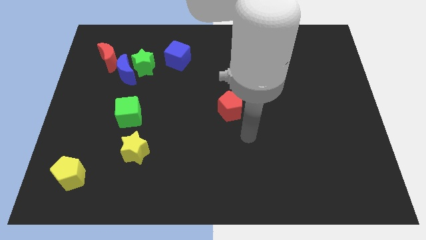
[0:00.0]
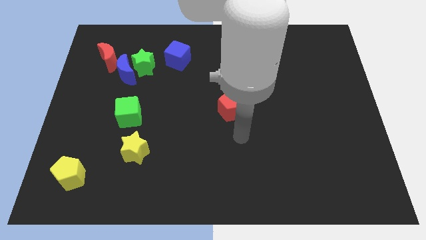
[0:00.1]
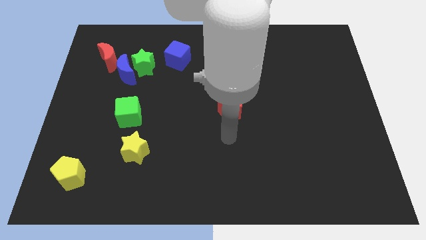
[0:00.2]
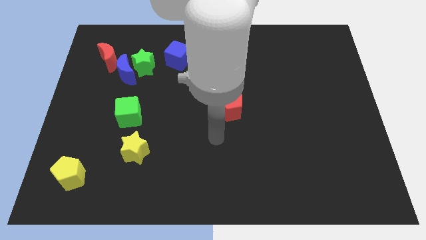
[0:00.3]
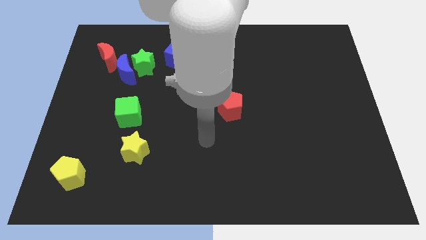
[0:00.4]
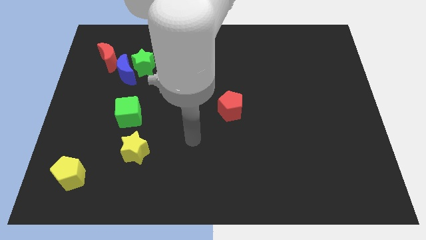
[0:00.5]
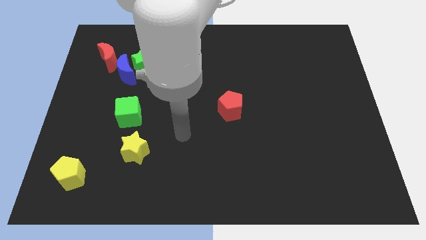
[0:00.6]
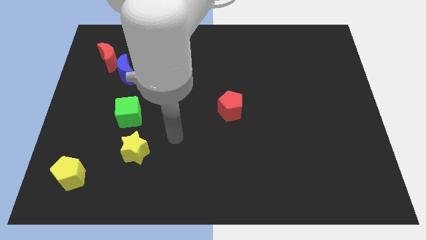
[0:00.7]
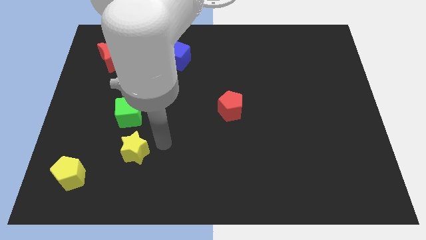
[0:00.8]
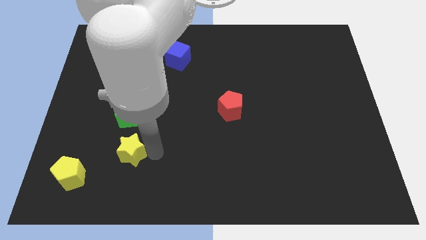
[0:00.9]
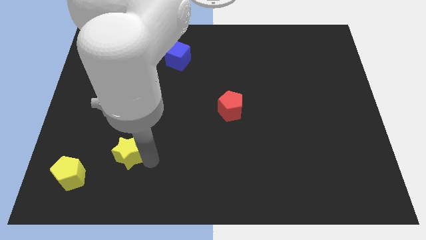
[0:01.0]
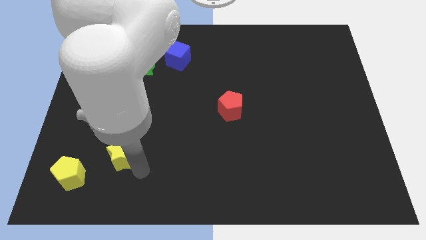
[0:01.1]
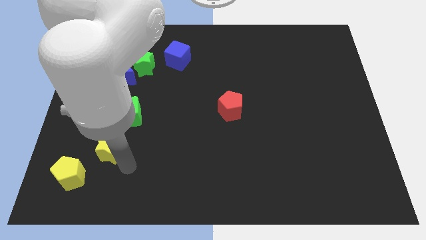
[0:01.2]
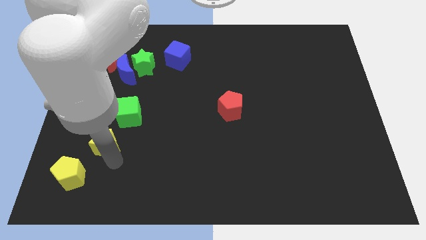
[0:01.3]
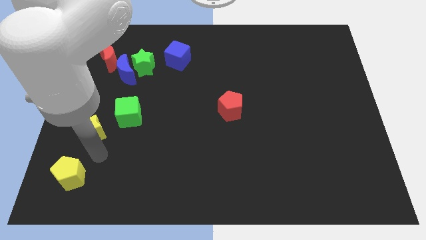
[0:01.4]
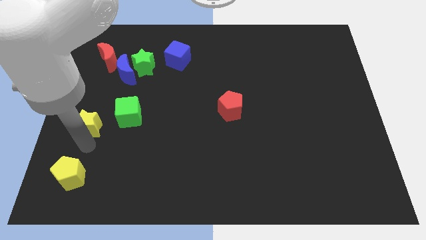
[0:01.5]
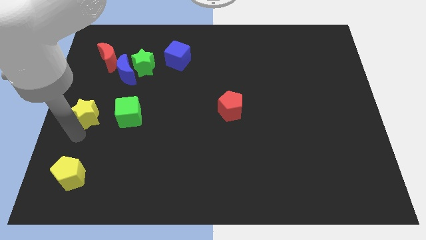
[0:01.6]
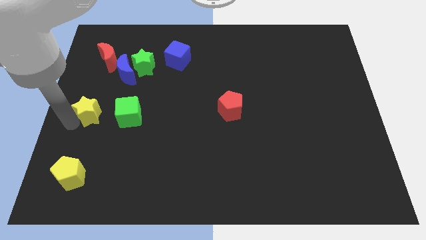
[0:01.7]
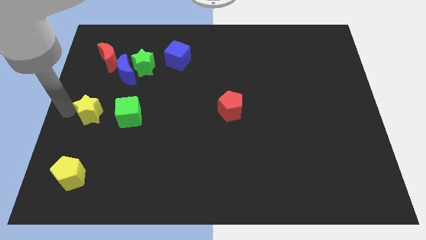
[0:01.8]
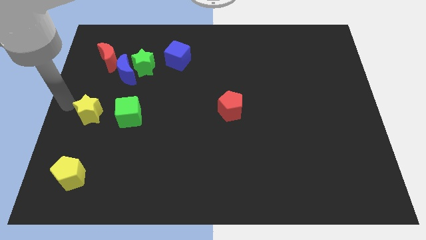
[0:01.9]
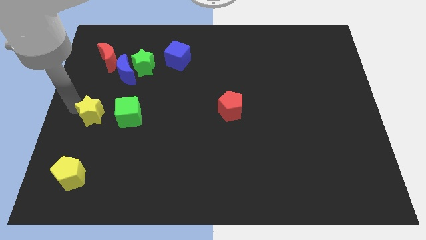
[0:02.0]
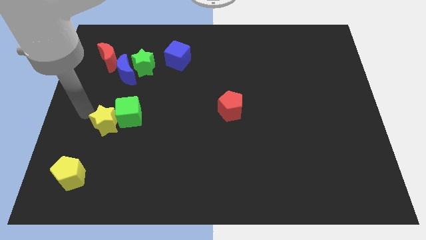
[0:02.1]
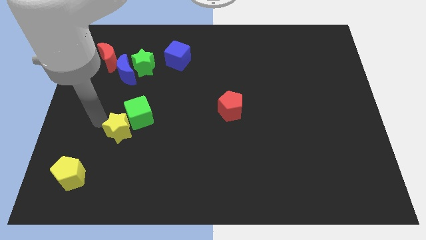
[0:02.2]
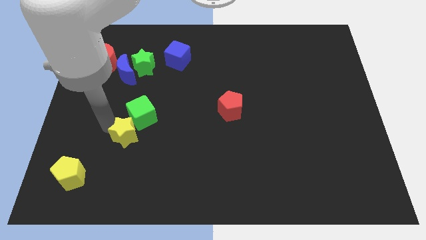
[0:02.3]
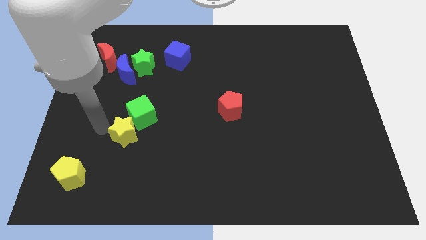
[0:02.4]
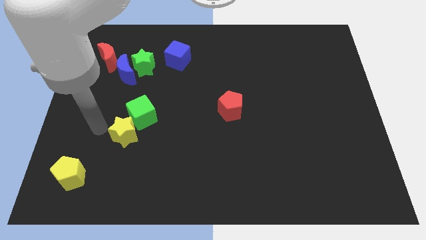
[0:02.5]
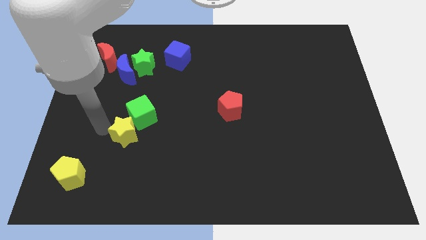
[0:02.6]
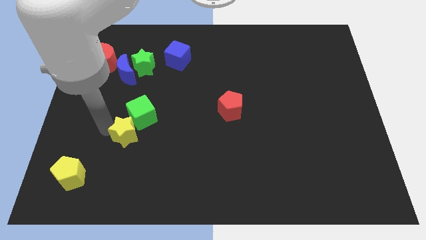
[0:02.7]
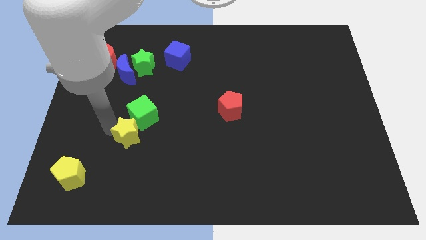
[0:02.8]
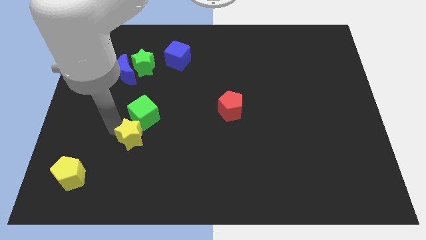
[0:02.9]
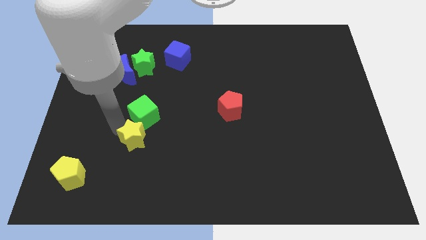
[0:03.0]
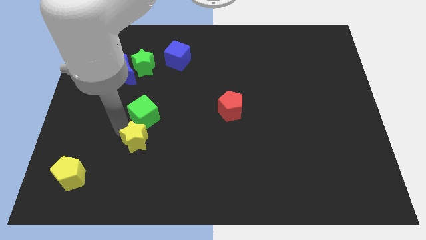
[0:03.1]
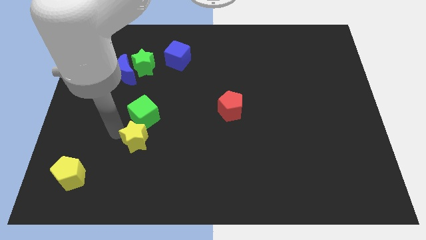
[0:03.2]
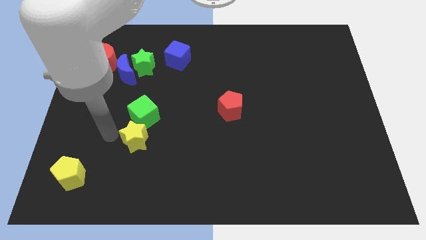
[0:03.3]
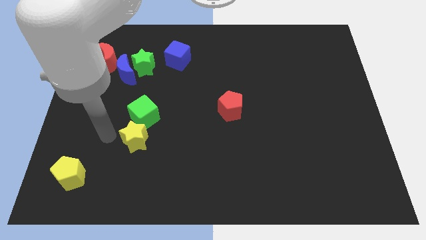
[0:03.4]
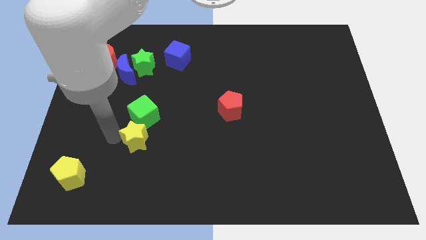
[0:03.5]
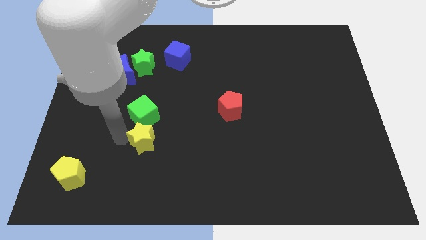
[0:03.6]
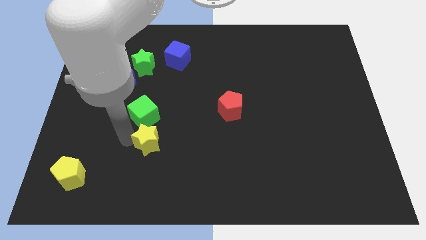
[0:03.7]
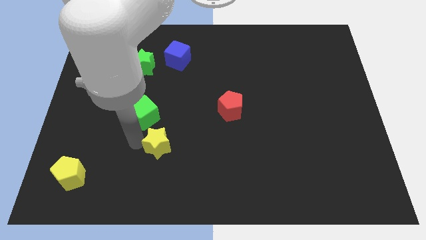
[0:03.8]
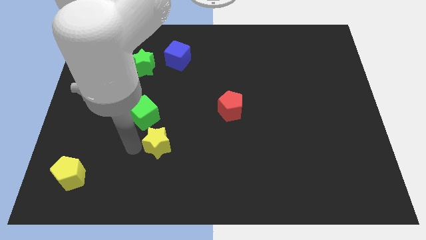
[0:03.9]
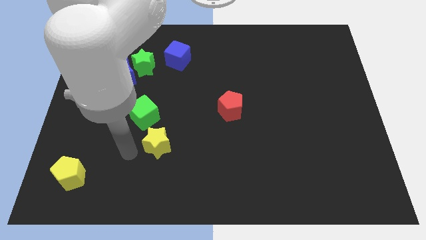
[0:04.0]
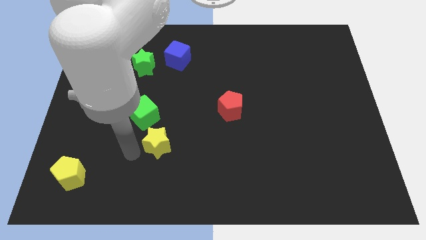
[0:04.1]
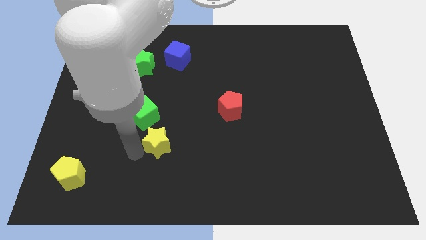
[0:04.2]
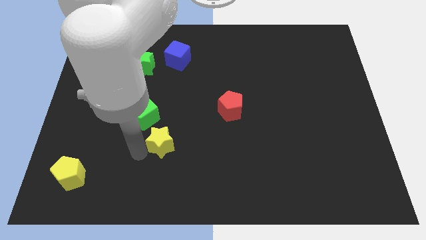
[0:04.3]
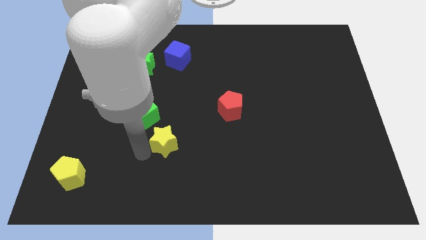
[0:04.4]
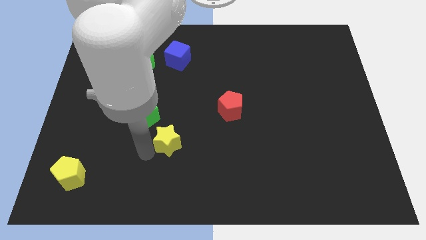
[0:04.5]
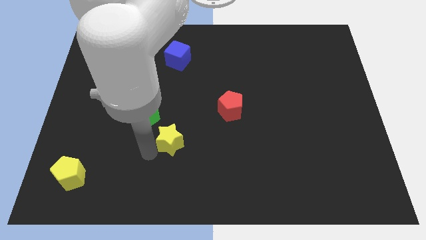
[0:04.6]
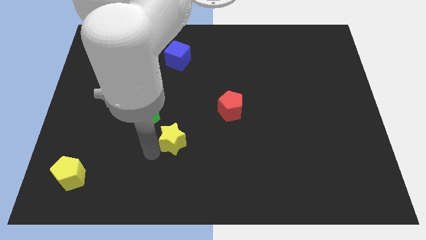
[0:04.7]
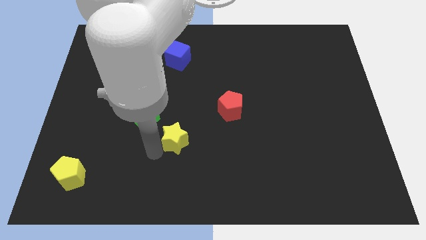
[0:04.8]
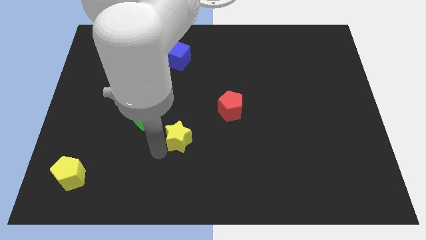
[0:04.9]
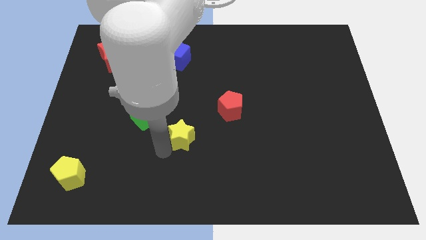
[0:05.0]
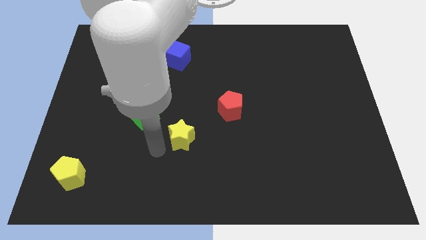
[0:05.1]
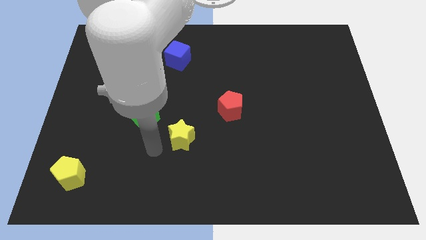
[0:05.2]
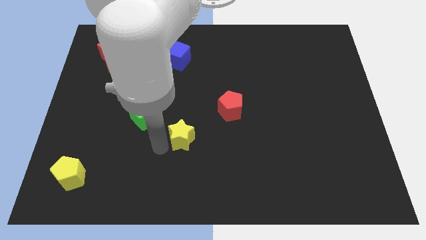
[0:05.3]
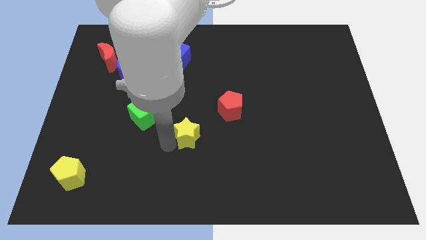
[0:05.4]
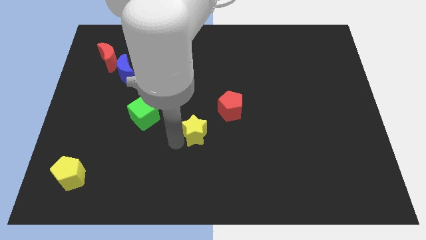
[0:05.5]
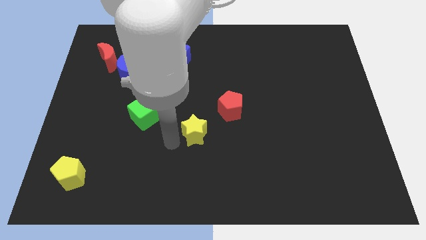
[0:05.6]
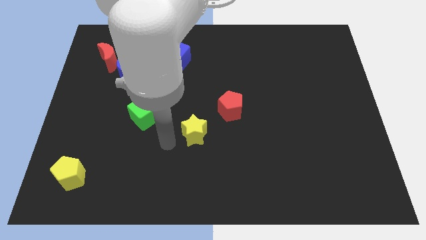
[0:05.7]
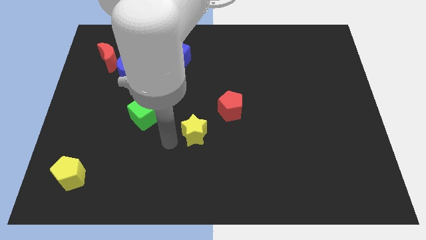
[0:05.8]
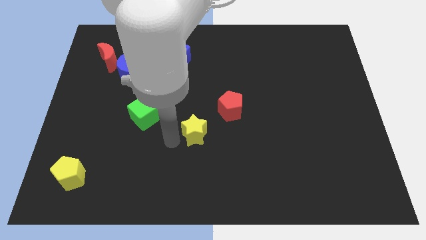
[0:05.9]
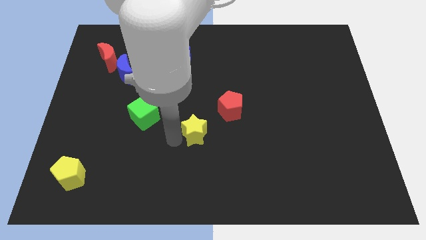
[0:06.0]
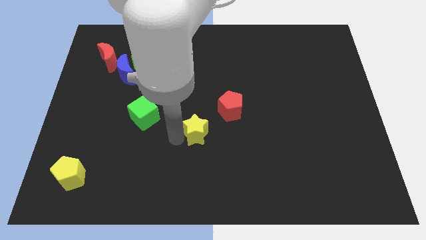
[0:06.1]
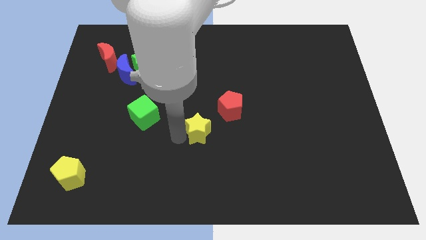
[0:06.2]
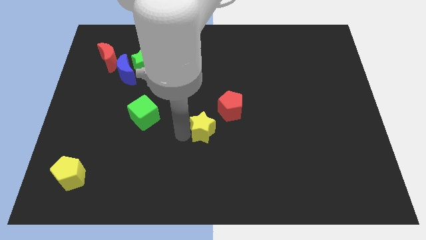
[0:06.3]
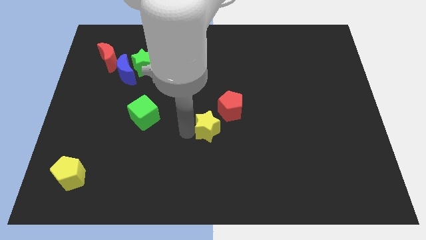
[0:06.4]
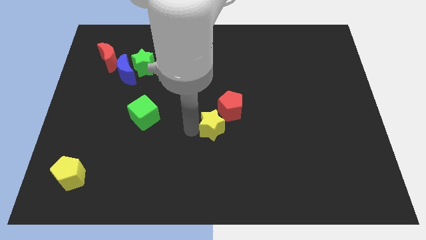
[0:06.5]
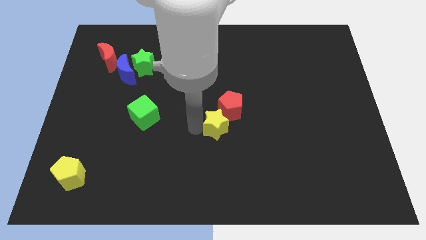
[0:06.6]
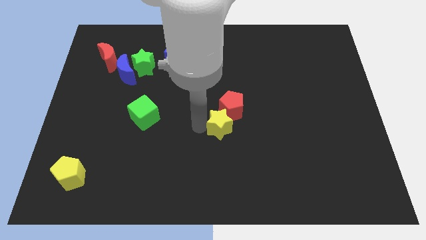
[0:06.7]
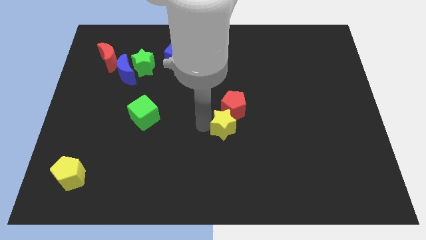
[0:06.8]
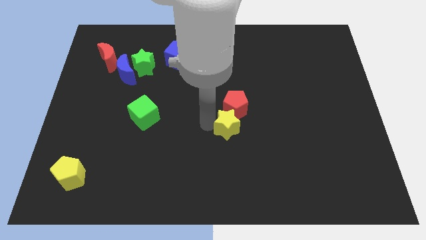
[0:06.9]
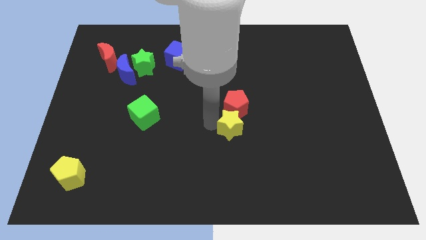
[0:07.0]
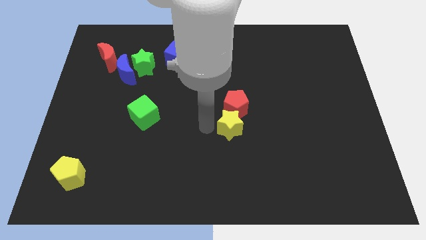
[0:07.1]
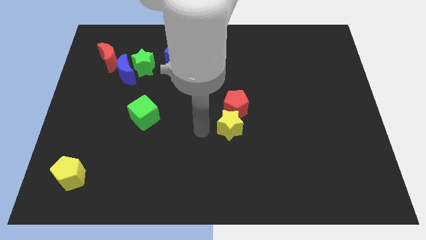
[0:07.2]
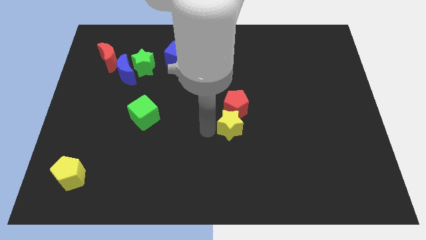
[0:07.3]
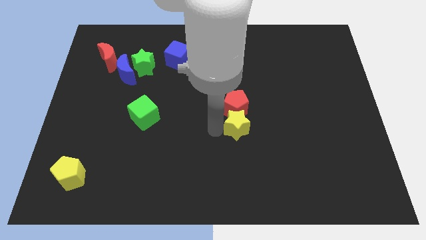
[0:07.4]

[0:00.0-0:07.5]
put the yellow star to the bottom right of the red pentagon
